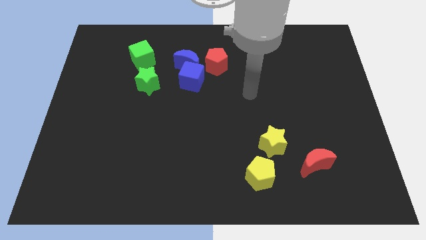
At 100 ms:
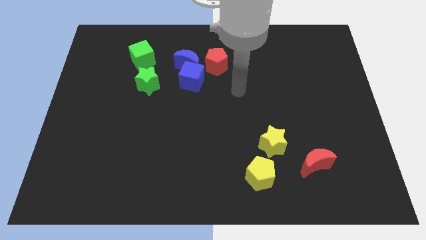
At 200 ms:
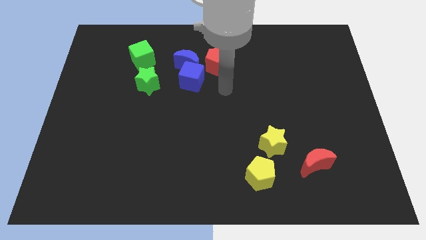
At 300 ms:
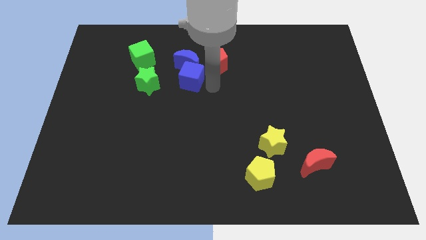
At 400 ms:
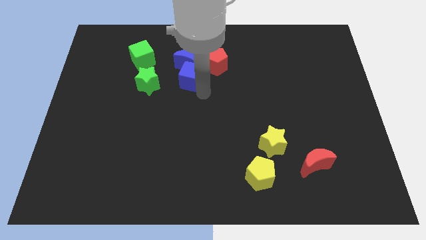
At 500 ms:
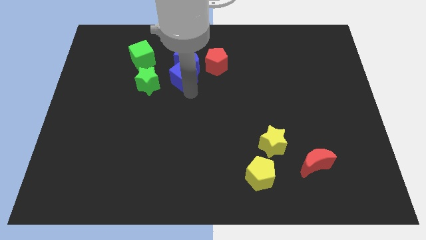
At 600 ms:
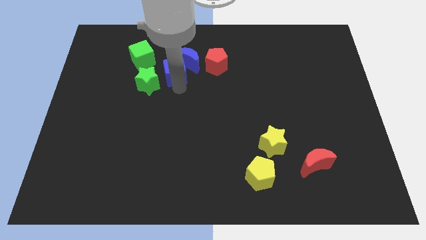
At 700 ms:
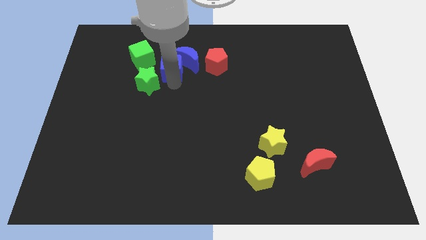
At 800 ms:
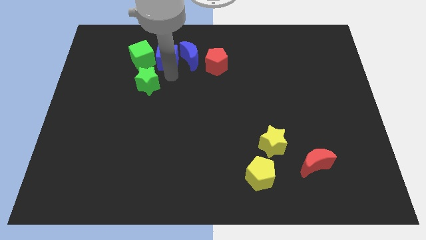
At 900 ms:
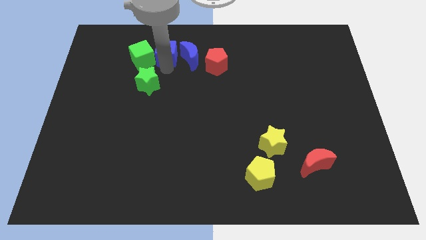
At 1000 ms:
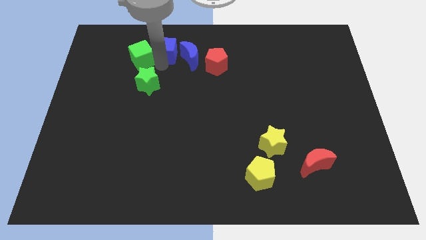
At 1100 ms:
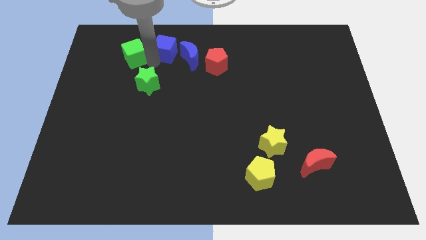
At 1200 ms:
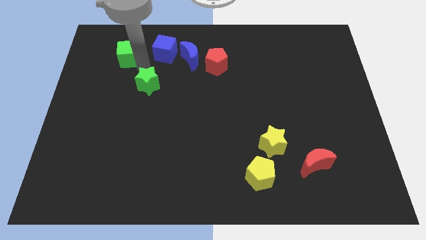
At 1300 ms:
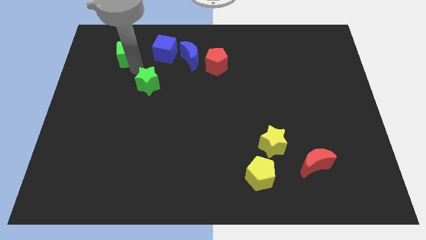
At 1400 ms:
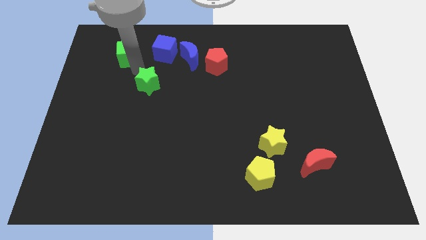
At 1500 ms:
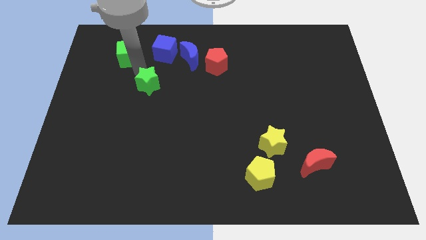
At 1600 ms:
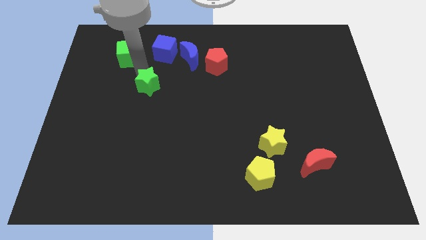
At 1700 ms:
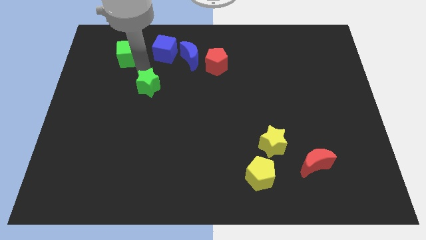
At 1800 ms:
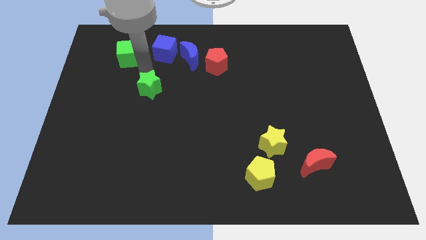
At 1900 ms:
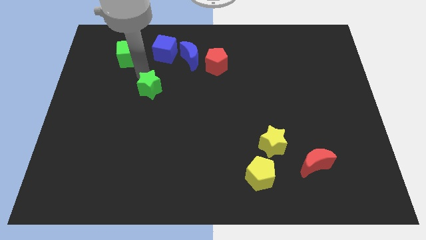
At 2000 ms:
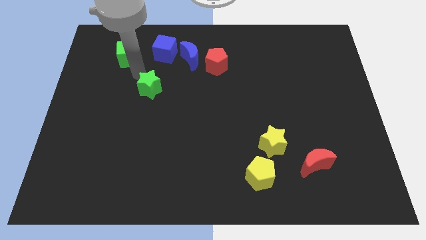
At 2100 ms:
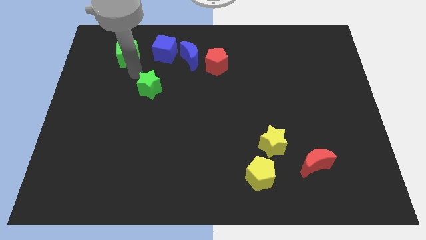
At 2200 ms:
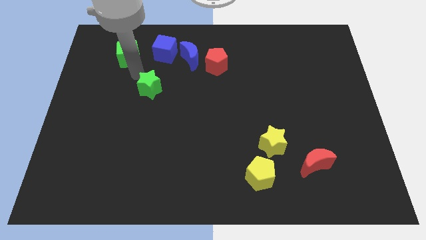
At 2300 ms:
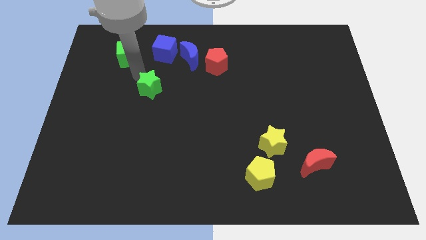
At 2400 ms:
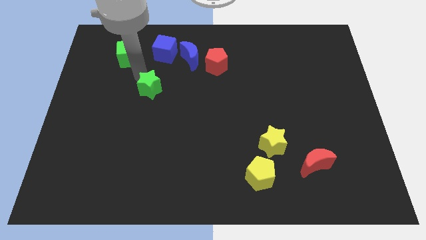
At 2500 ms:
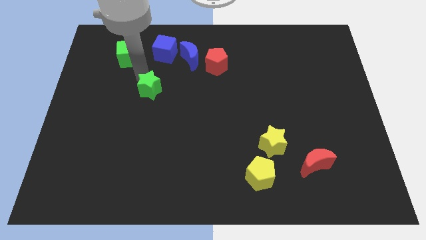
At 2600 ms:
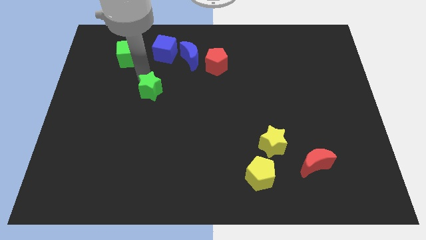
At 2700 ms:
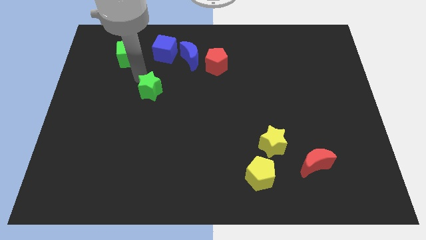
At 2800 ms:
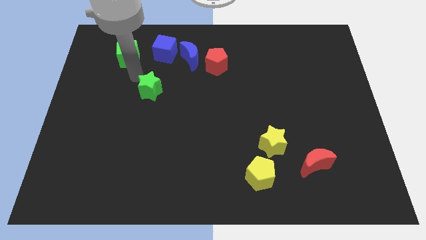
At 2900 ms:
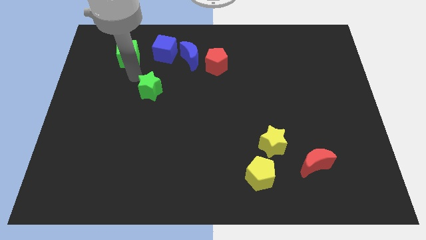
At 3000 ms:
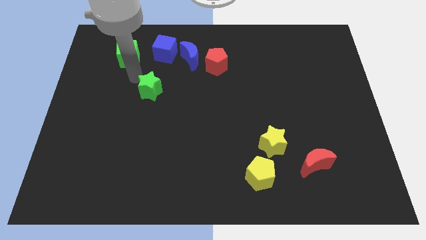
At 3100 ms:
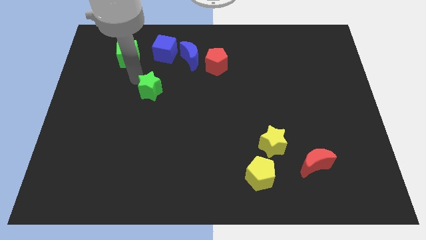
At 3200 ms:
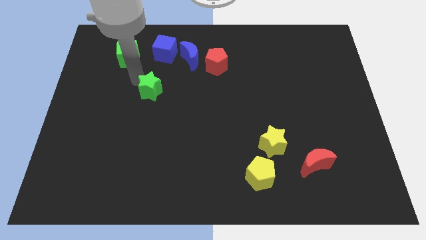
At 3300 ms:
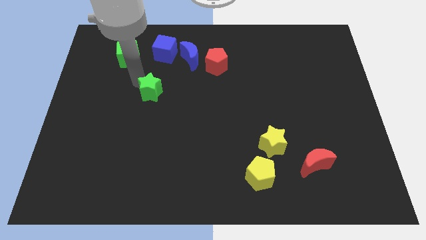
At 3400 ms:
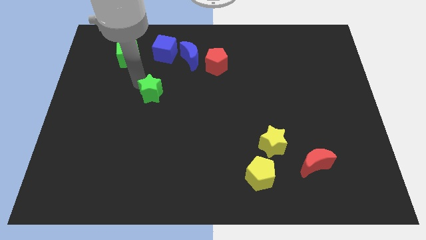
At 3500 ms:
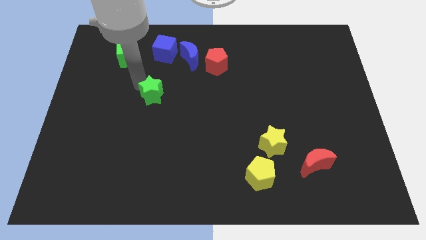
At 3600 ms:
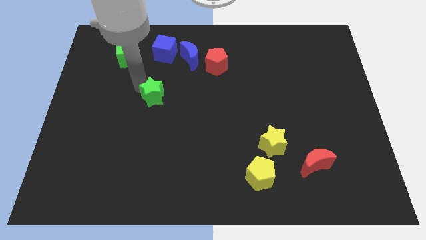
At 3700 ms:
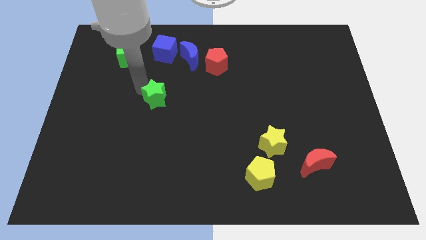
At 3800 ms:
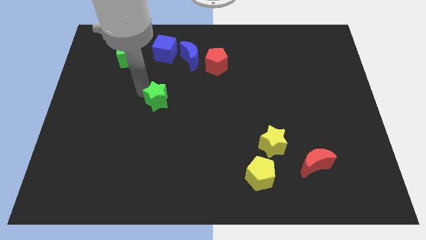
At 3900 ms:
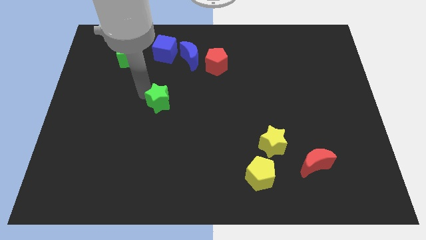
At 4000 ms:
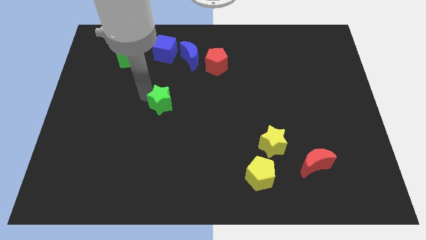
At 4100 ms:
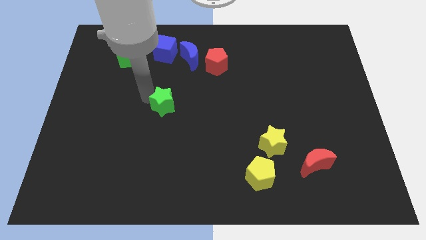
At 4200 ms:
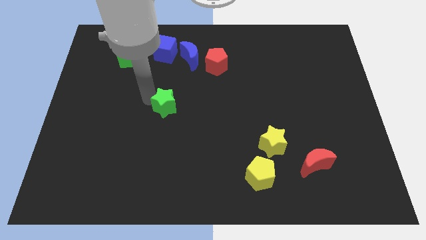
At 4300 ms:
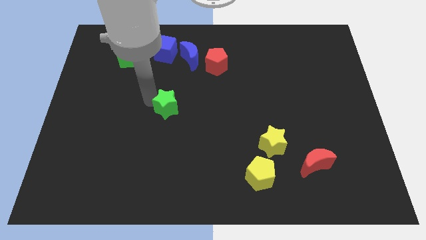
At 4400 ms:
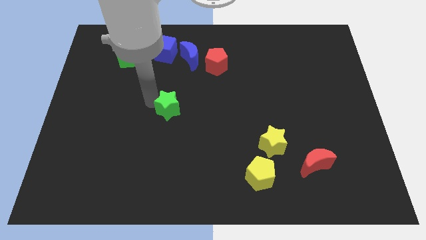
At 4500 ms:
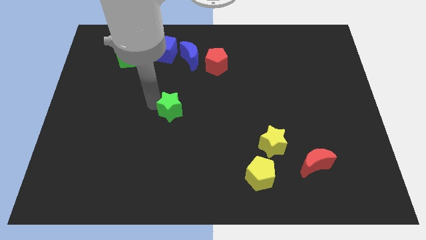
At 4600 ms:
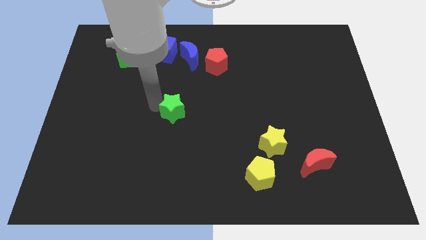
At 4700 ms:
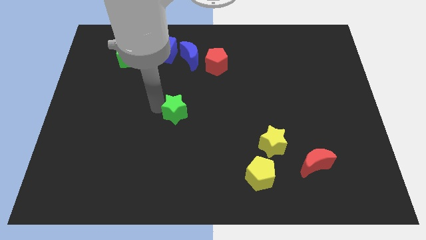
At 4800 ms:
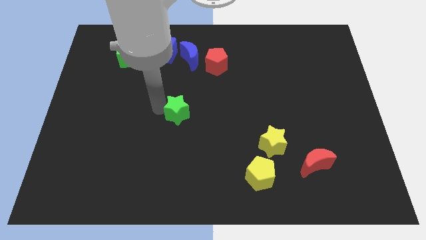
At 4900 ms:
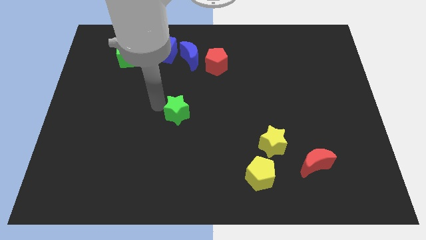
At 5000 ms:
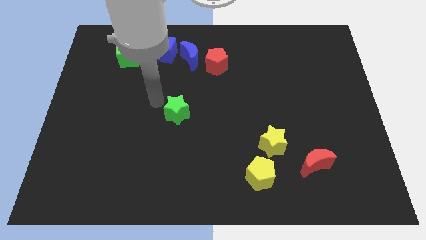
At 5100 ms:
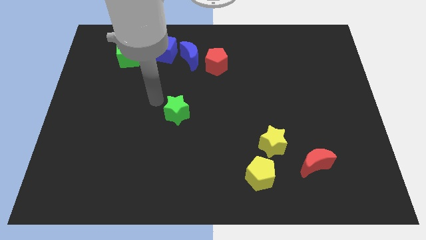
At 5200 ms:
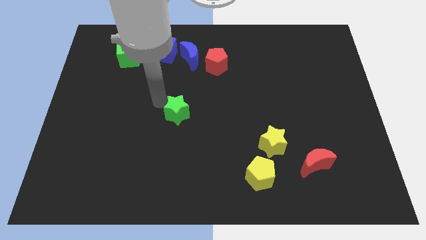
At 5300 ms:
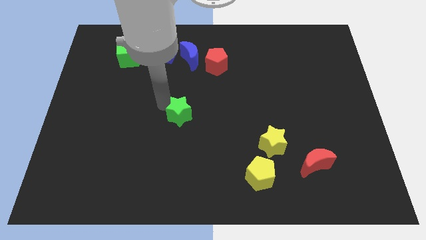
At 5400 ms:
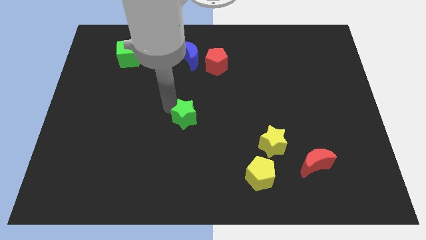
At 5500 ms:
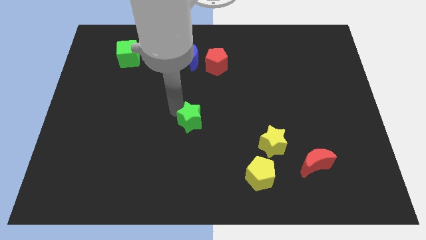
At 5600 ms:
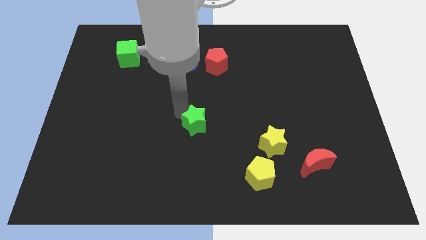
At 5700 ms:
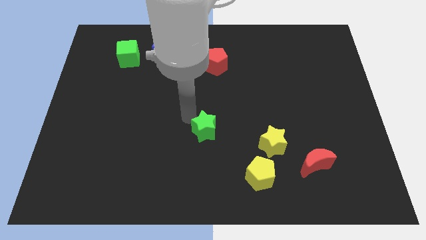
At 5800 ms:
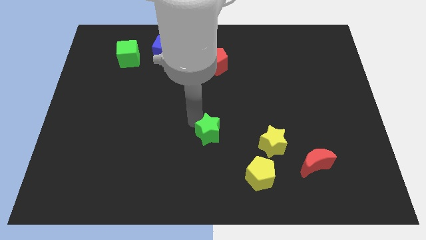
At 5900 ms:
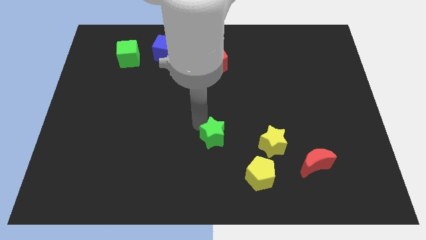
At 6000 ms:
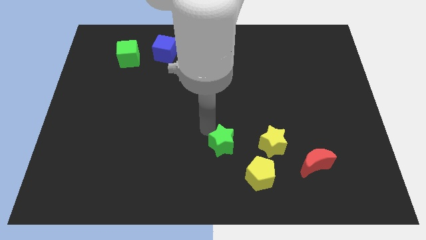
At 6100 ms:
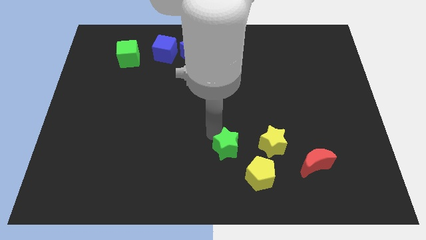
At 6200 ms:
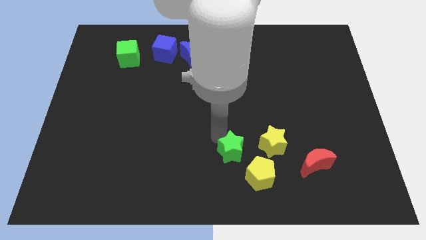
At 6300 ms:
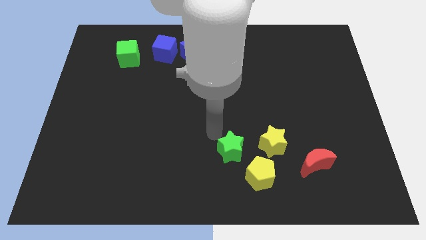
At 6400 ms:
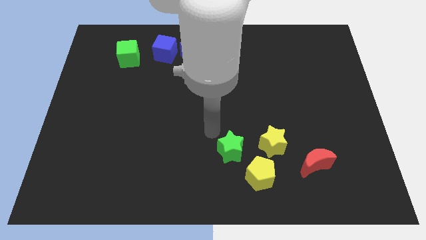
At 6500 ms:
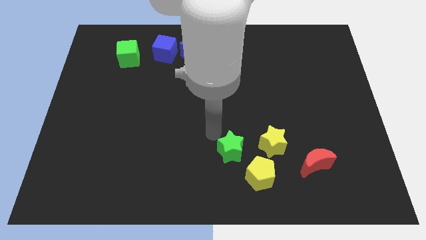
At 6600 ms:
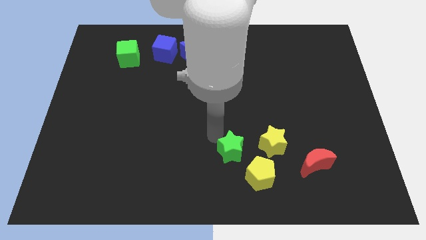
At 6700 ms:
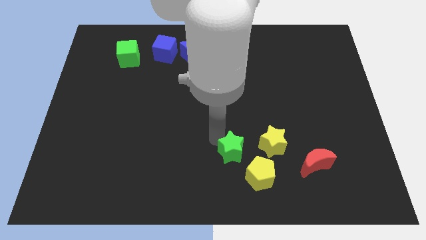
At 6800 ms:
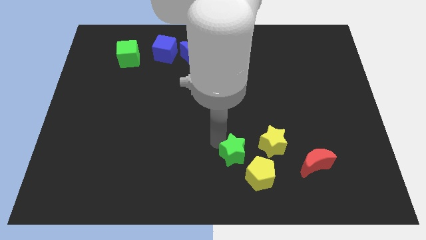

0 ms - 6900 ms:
put the green star to the bottom left side of the yellow star

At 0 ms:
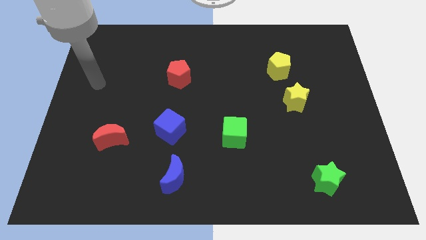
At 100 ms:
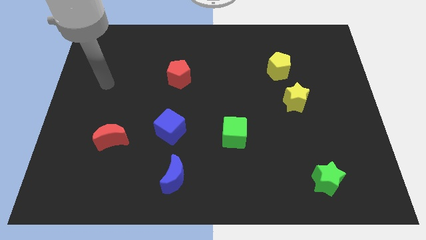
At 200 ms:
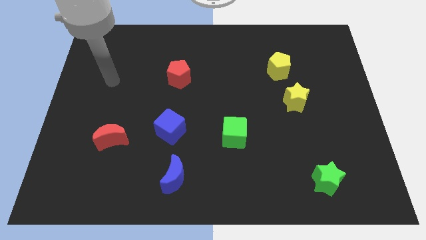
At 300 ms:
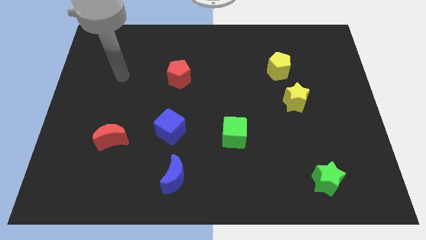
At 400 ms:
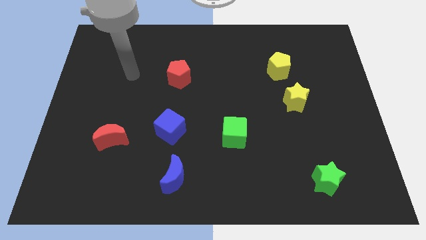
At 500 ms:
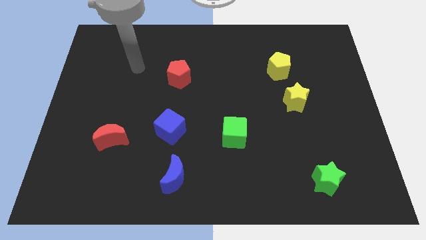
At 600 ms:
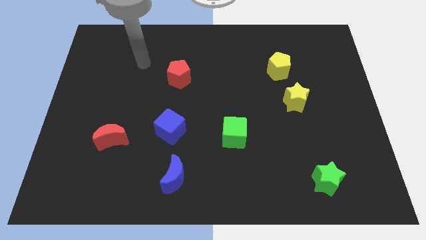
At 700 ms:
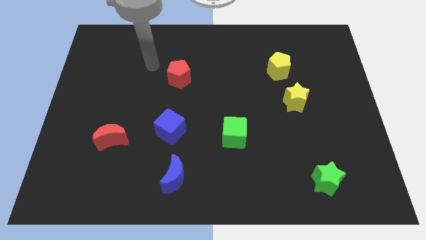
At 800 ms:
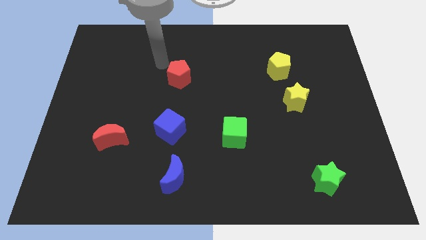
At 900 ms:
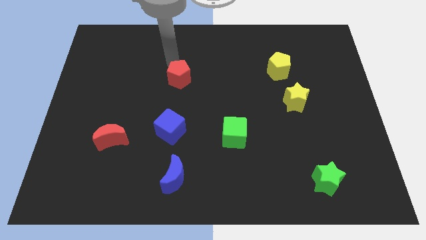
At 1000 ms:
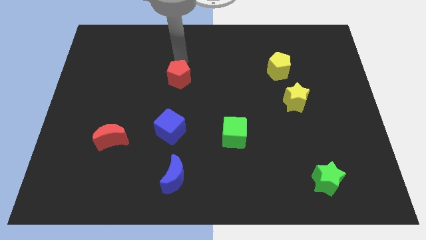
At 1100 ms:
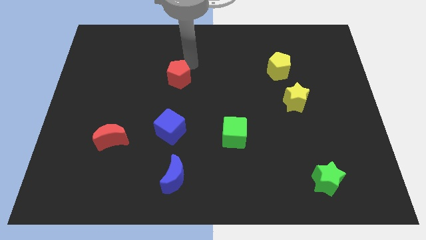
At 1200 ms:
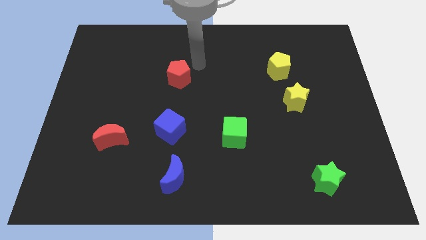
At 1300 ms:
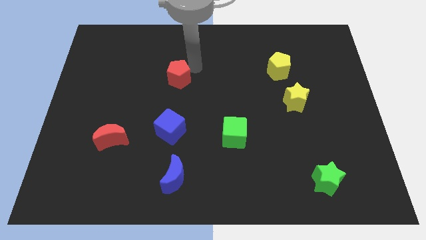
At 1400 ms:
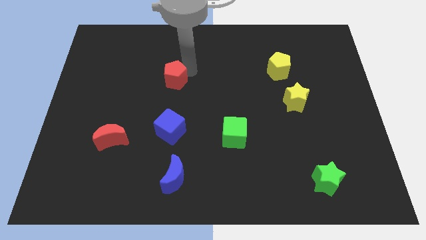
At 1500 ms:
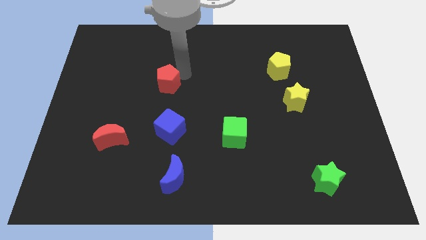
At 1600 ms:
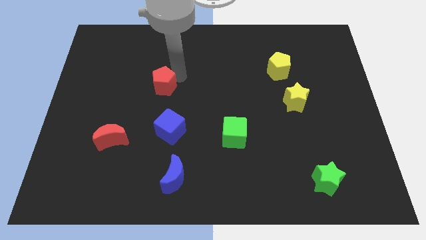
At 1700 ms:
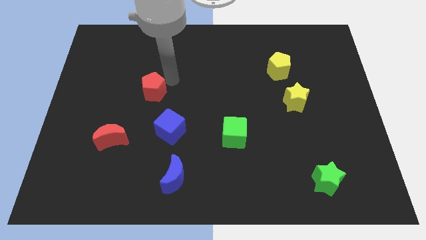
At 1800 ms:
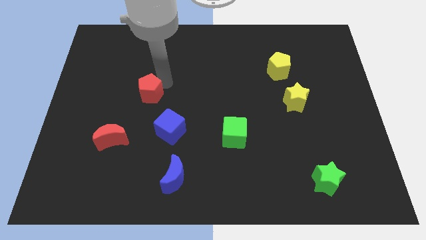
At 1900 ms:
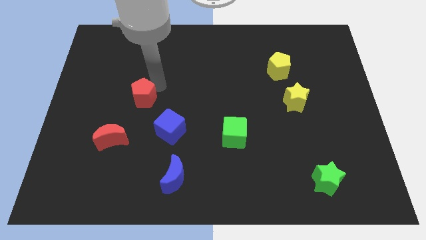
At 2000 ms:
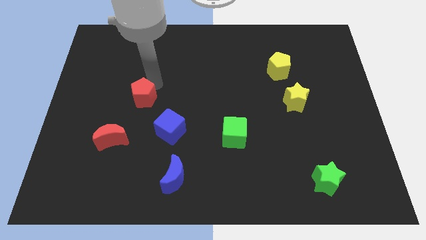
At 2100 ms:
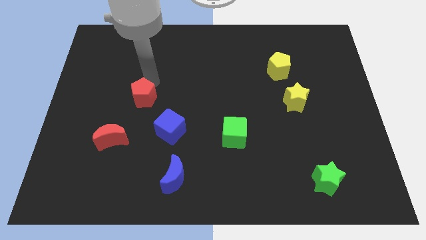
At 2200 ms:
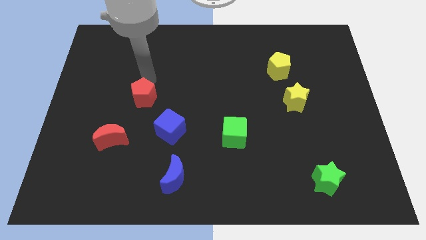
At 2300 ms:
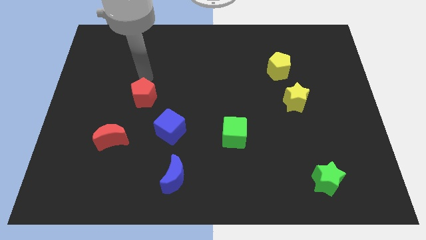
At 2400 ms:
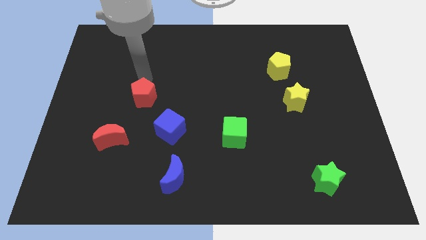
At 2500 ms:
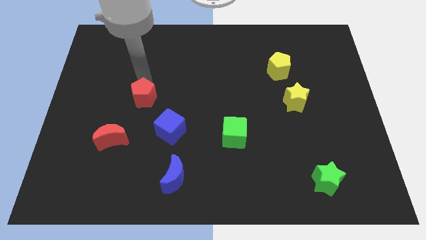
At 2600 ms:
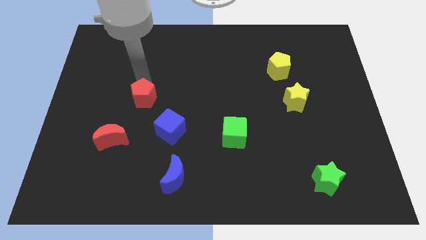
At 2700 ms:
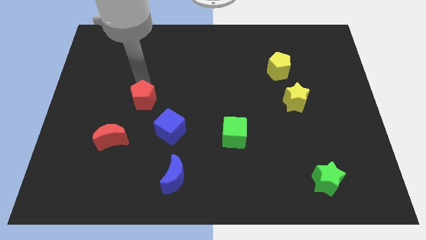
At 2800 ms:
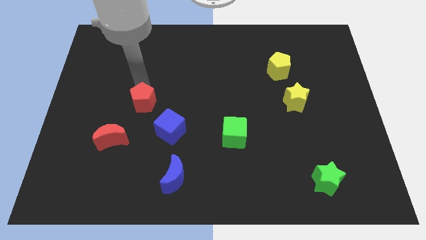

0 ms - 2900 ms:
put the red pentagon to the top right of the red moon
